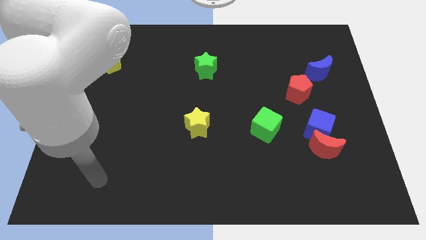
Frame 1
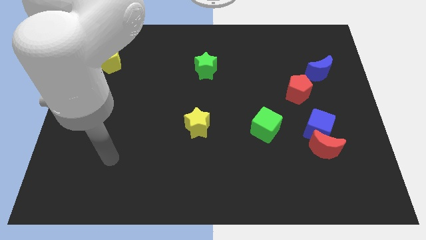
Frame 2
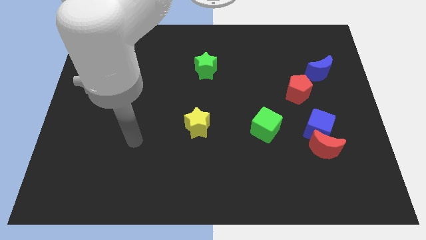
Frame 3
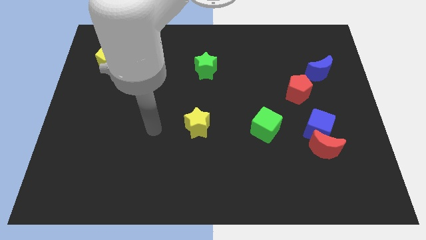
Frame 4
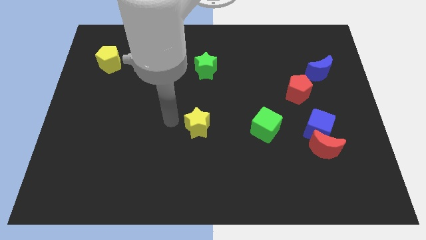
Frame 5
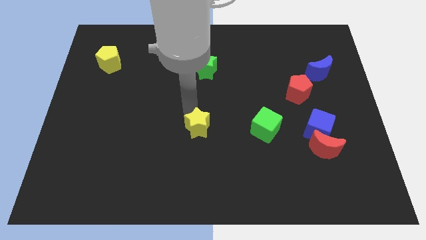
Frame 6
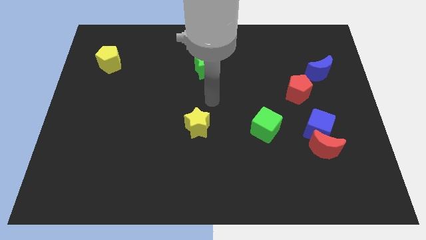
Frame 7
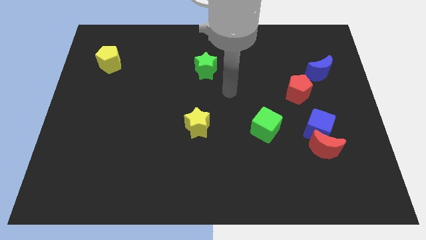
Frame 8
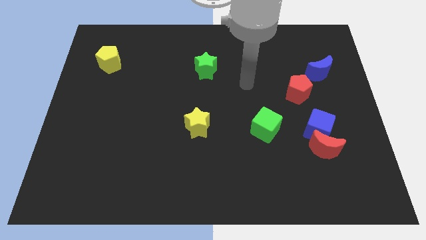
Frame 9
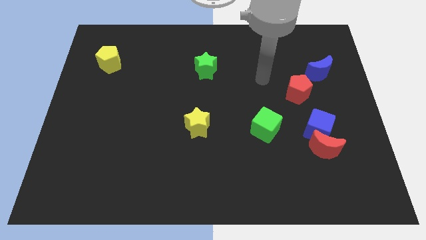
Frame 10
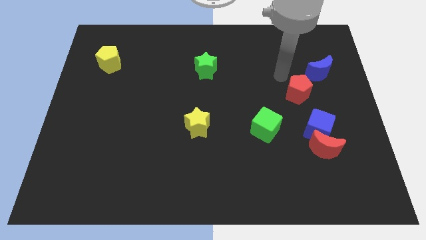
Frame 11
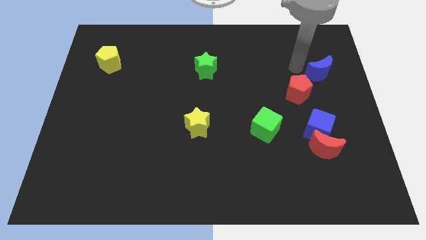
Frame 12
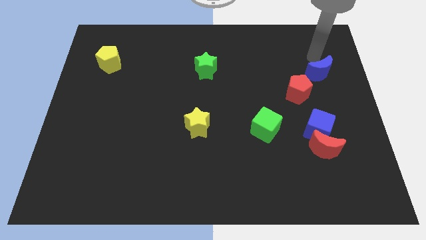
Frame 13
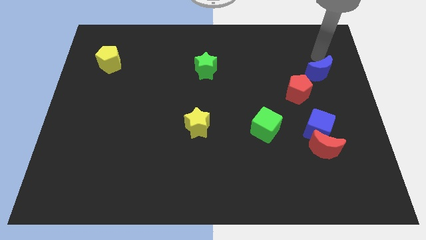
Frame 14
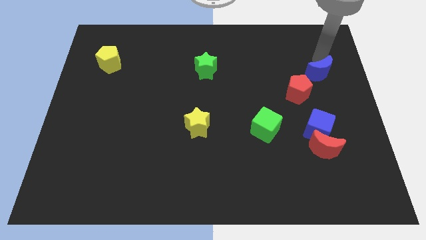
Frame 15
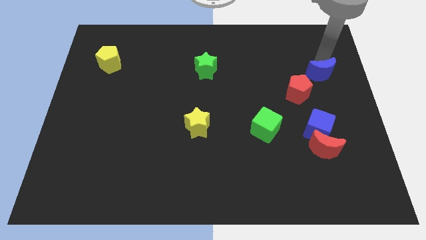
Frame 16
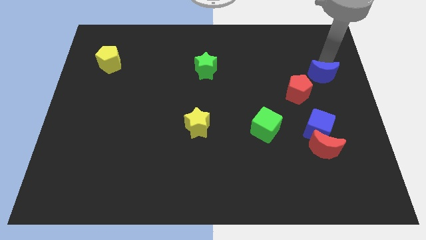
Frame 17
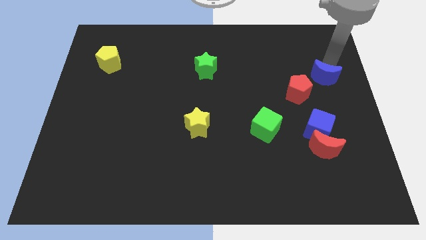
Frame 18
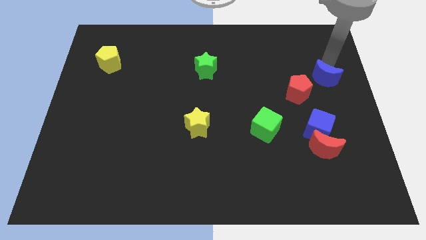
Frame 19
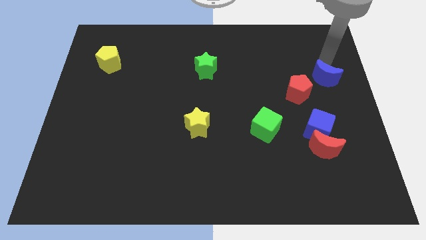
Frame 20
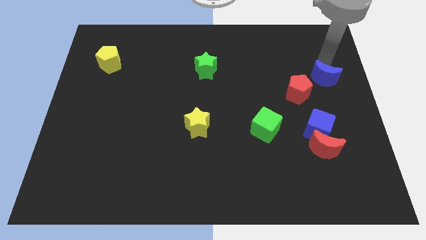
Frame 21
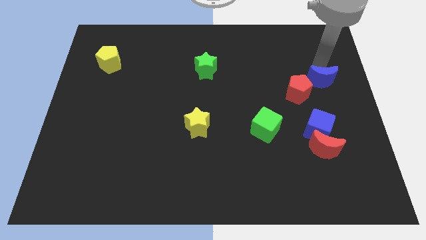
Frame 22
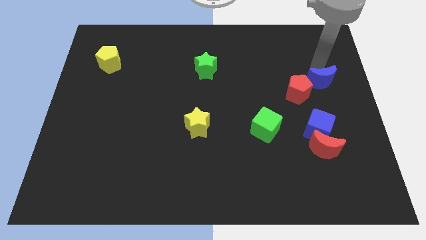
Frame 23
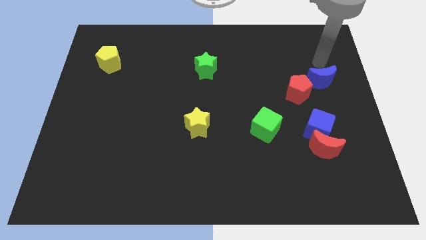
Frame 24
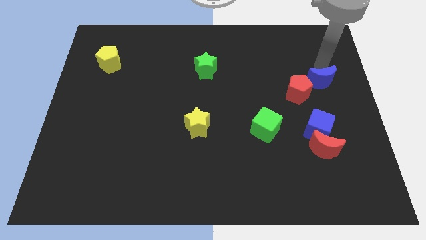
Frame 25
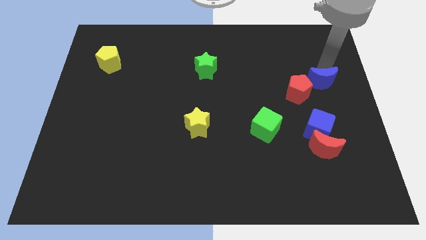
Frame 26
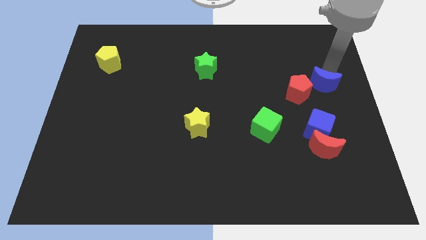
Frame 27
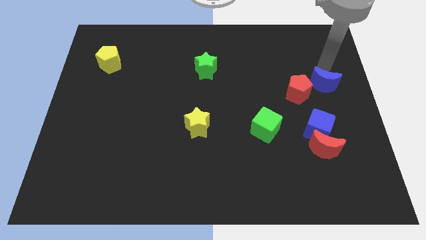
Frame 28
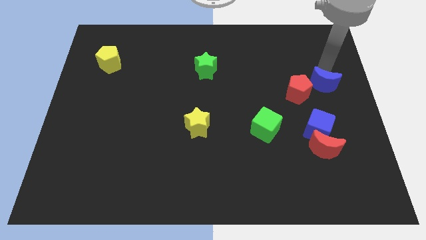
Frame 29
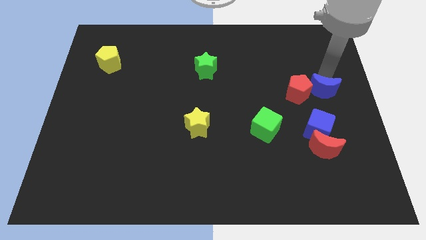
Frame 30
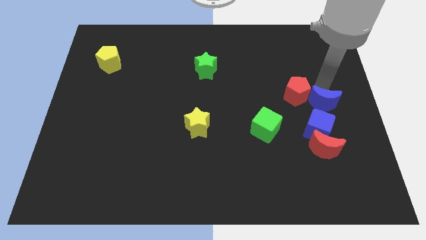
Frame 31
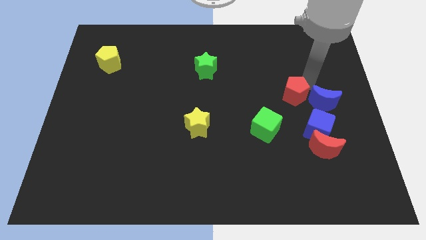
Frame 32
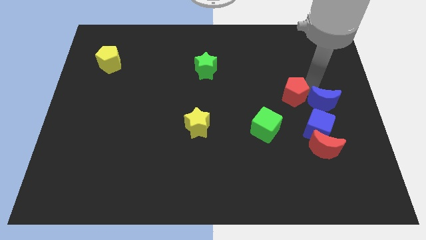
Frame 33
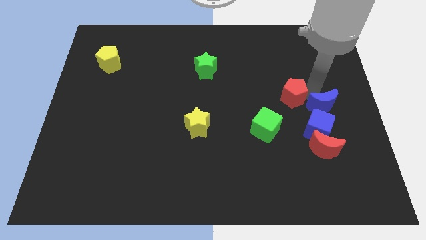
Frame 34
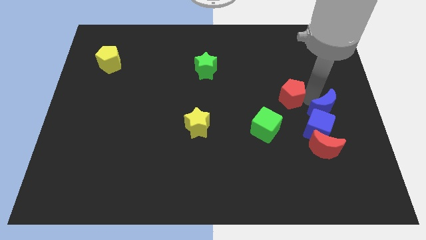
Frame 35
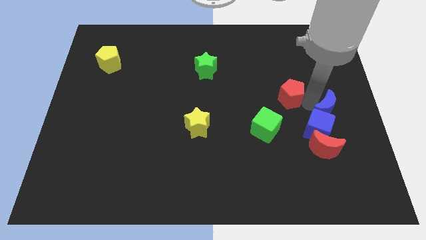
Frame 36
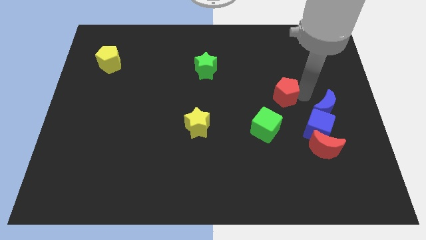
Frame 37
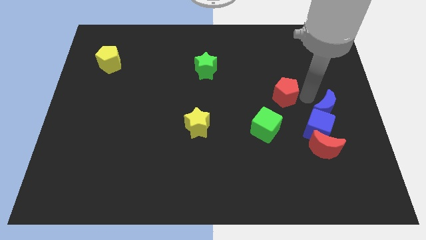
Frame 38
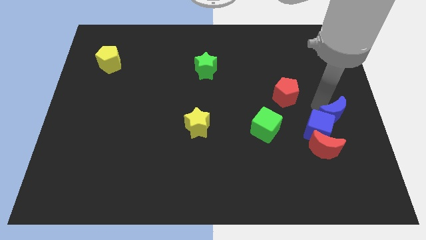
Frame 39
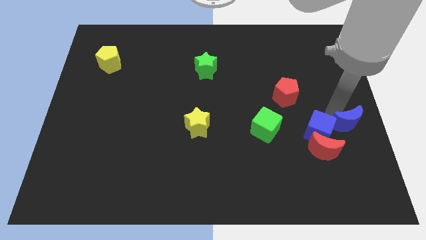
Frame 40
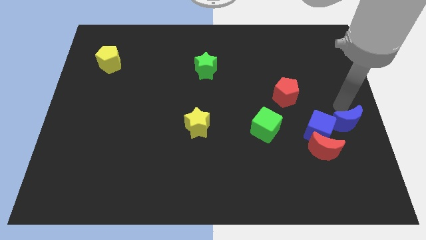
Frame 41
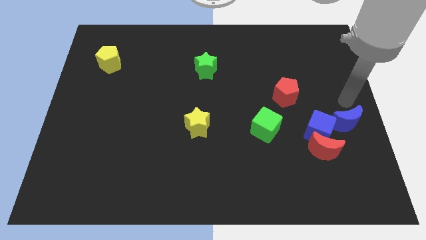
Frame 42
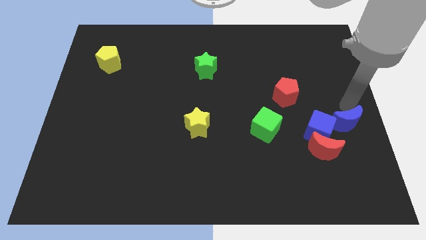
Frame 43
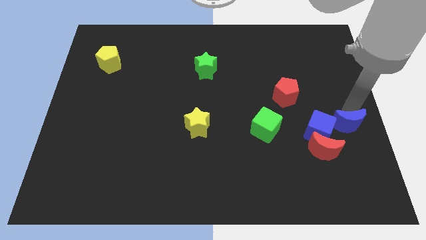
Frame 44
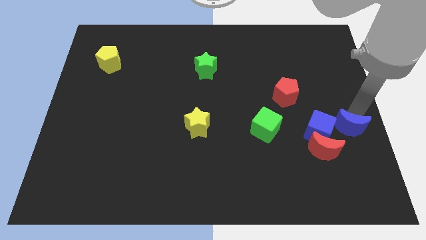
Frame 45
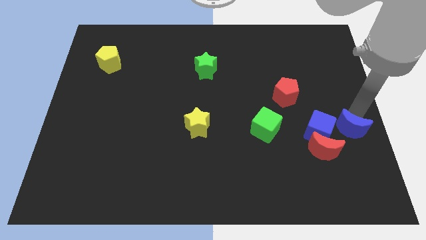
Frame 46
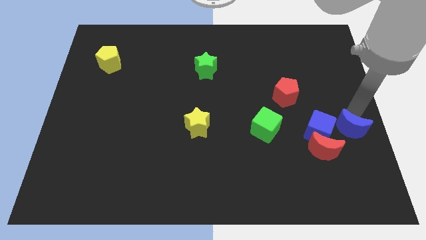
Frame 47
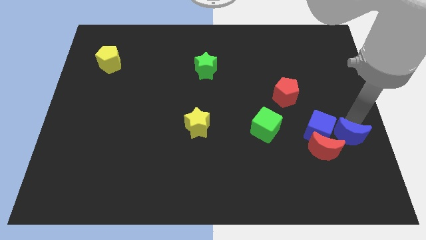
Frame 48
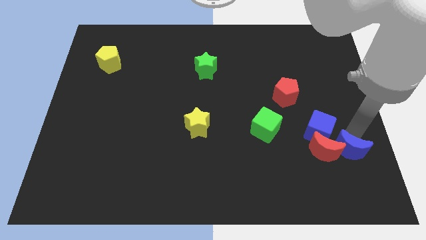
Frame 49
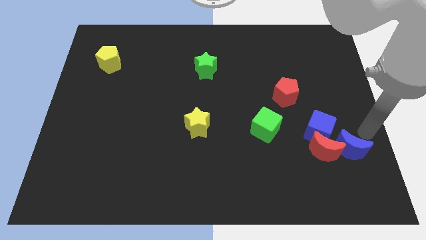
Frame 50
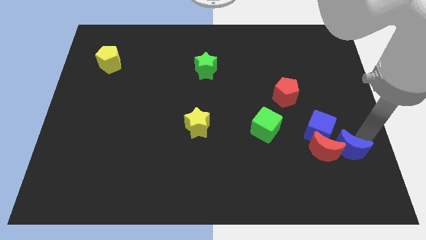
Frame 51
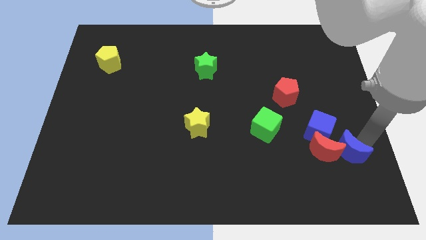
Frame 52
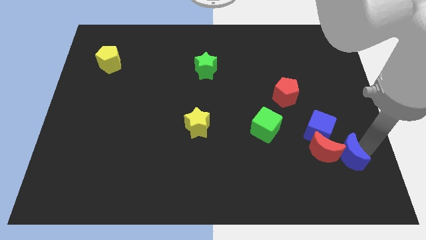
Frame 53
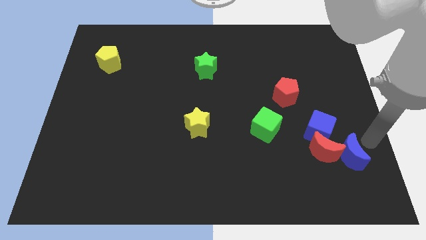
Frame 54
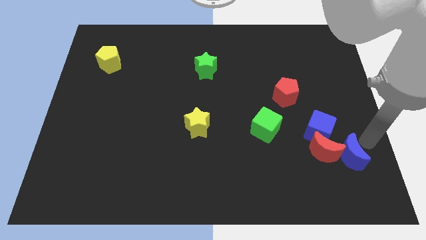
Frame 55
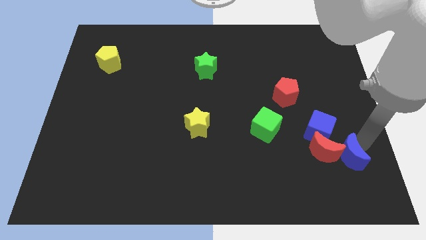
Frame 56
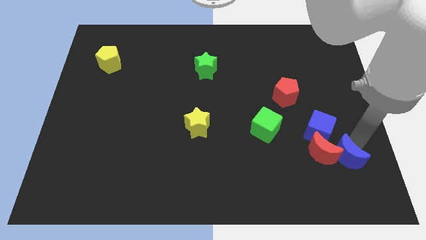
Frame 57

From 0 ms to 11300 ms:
push the blue moon to the bottom side of the blue cube

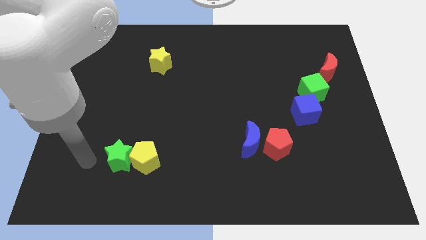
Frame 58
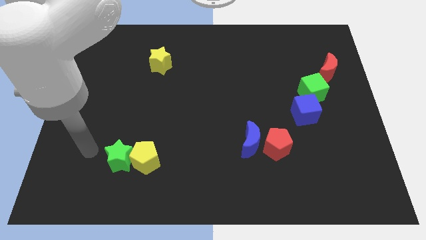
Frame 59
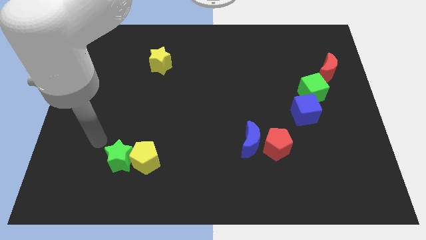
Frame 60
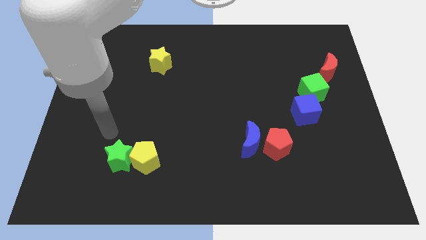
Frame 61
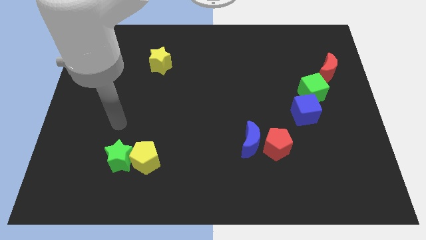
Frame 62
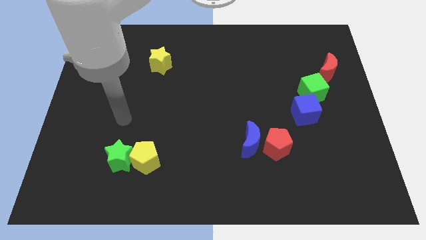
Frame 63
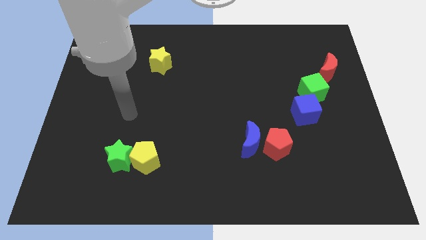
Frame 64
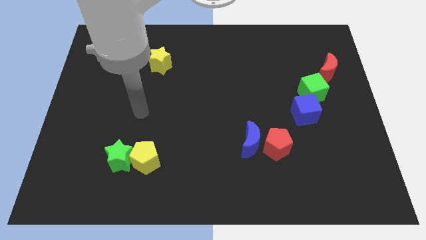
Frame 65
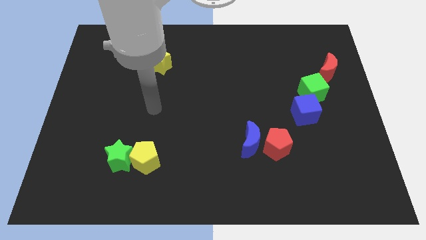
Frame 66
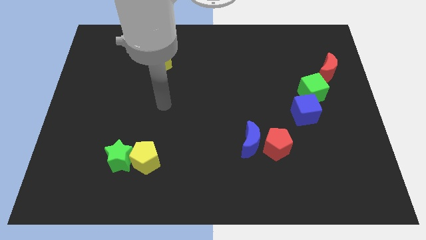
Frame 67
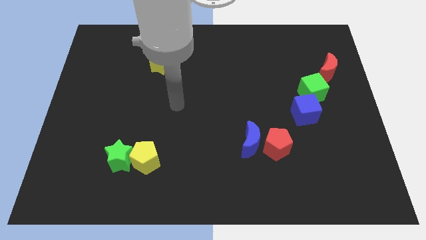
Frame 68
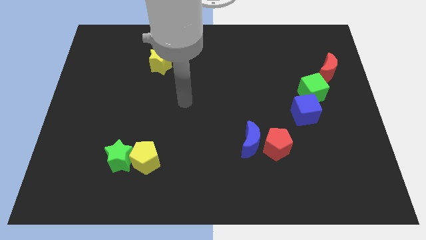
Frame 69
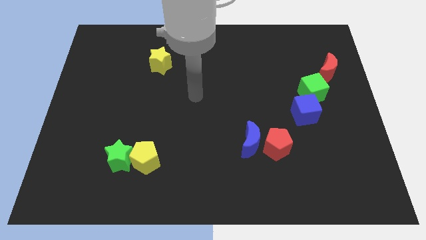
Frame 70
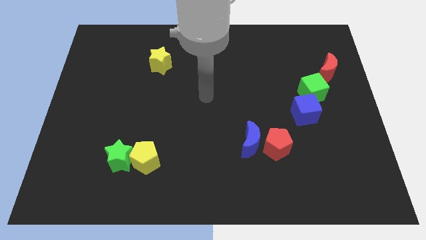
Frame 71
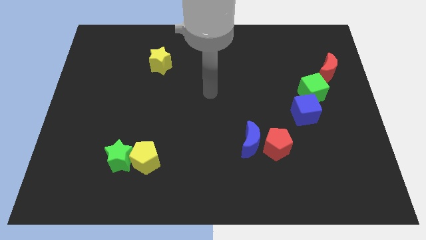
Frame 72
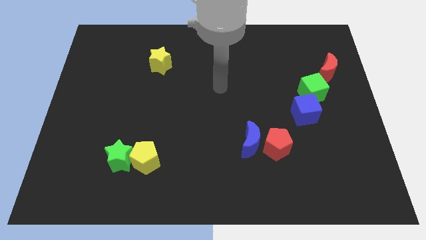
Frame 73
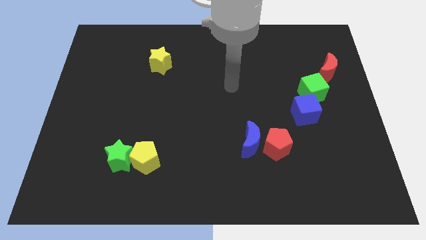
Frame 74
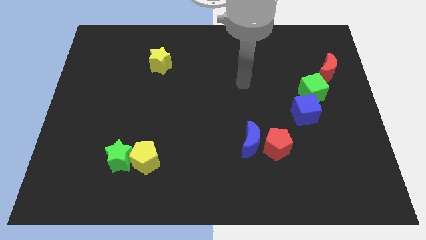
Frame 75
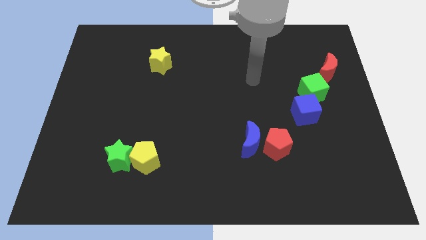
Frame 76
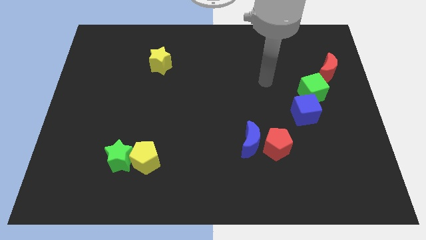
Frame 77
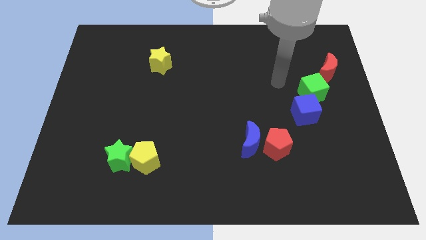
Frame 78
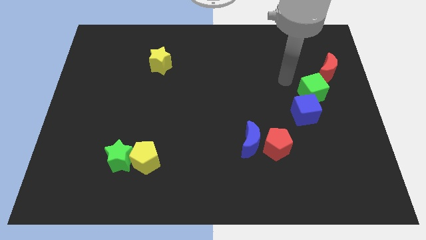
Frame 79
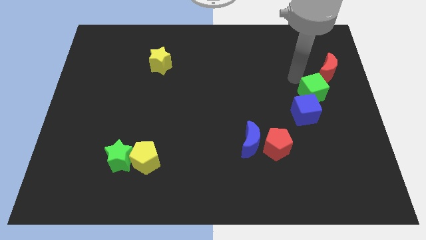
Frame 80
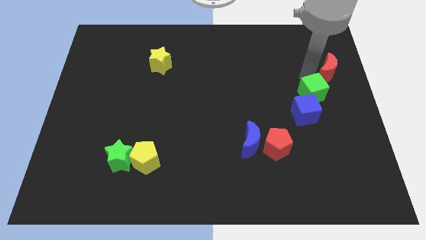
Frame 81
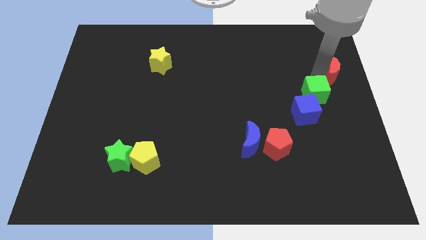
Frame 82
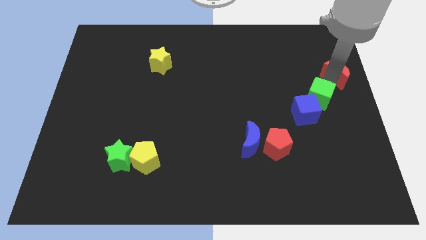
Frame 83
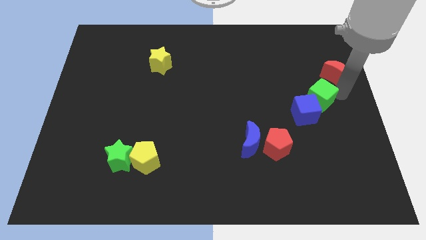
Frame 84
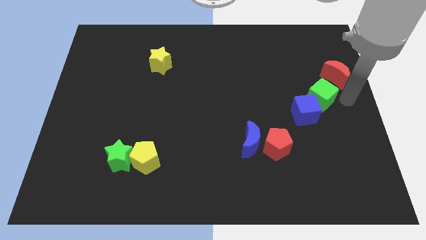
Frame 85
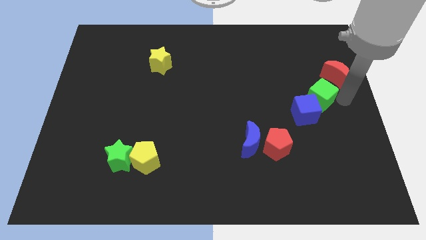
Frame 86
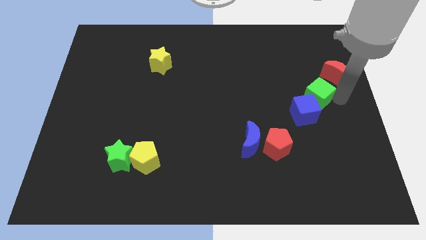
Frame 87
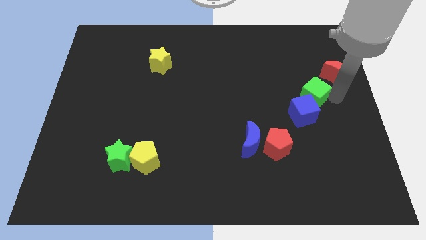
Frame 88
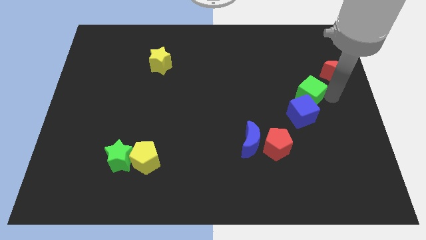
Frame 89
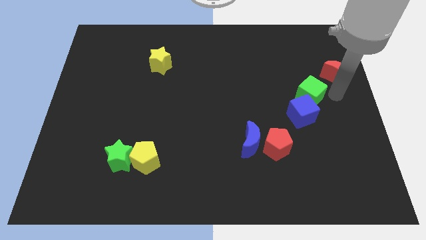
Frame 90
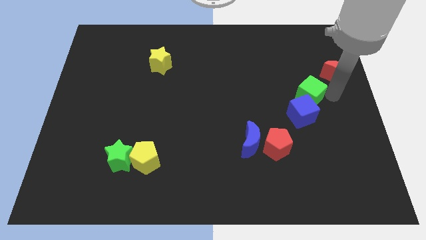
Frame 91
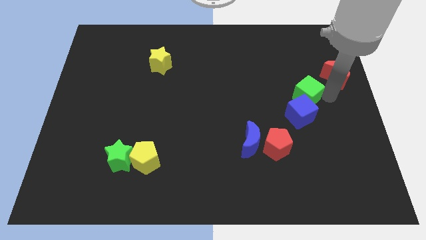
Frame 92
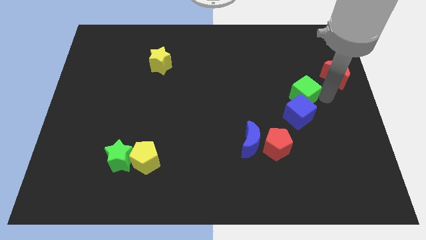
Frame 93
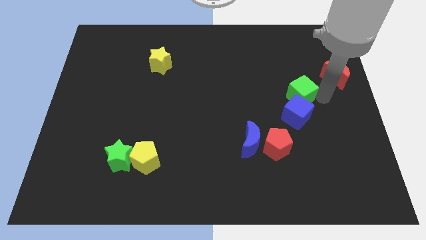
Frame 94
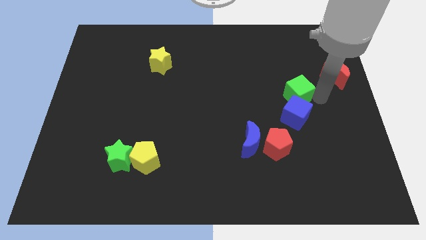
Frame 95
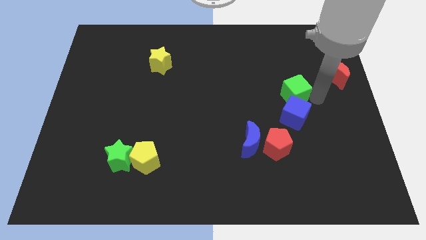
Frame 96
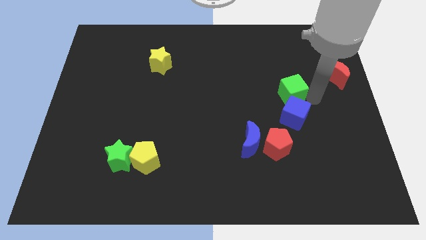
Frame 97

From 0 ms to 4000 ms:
move the green cube diagonally up and to the left of the blue cube
